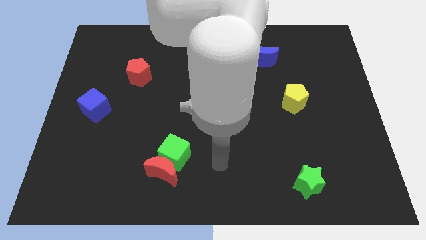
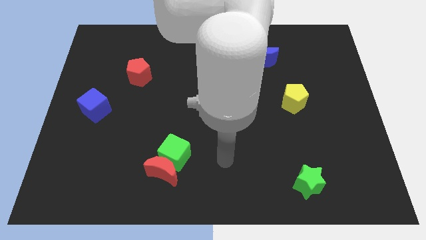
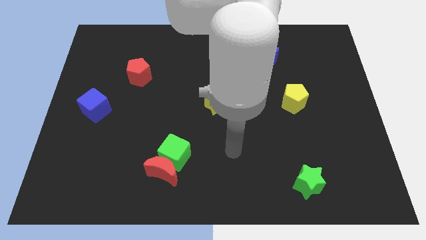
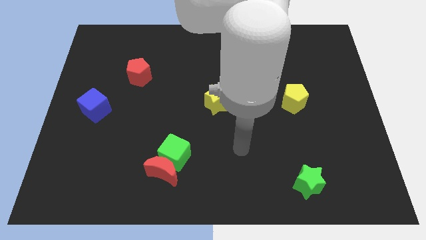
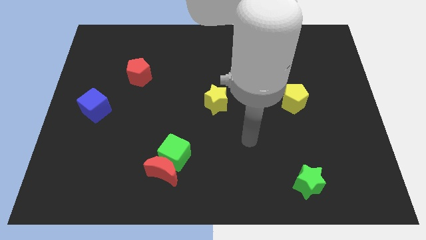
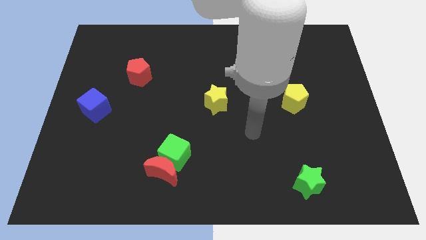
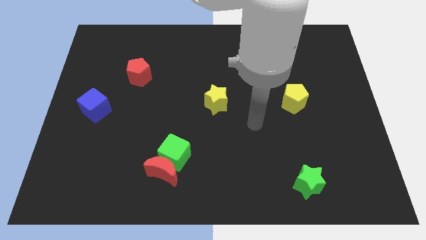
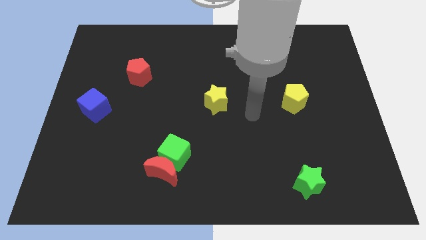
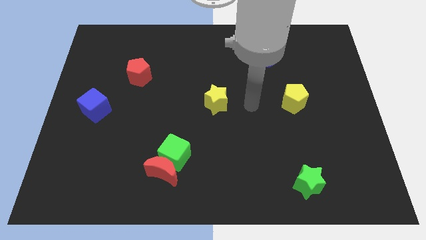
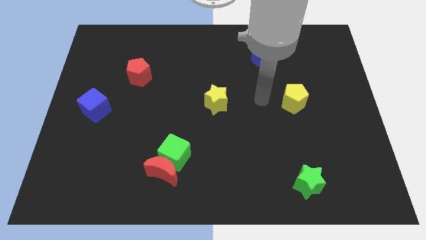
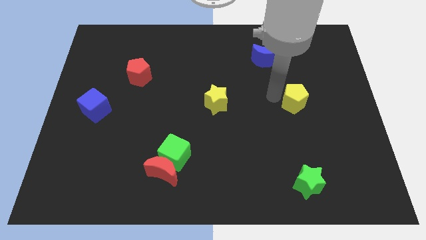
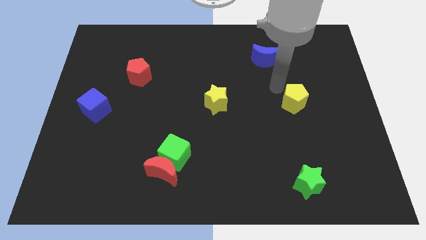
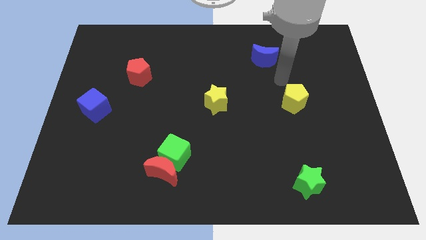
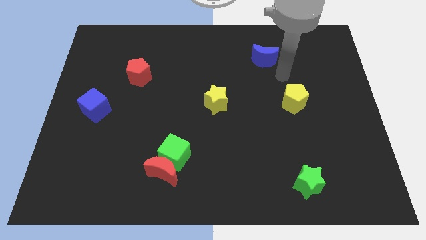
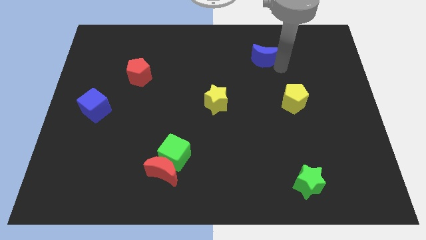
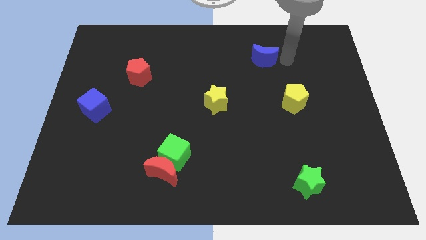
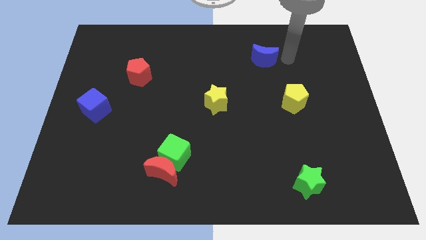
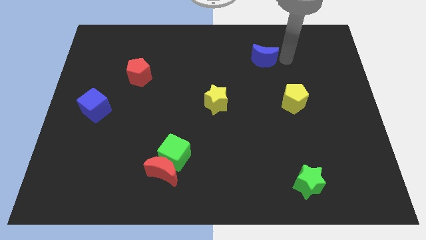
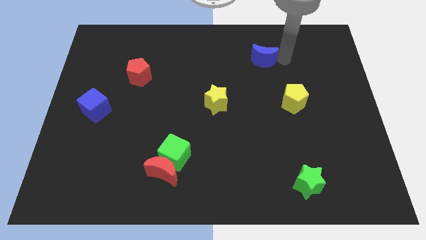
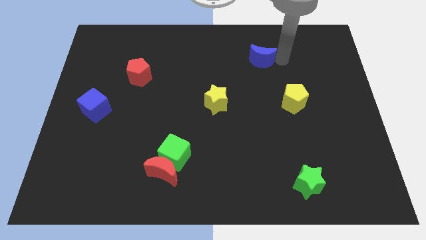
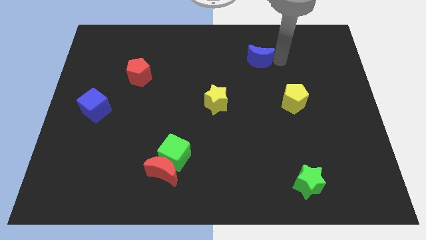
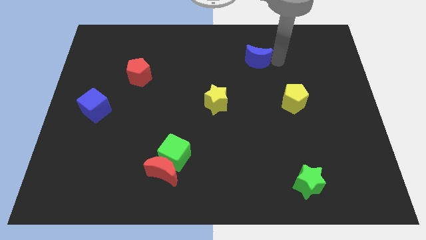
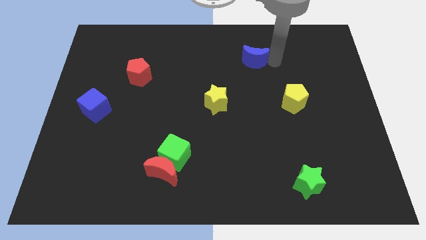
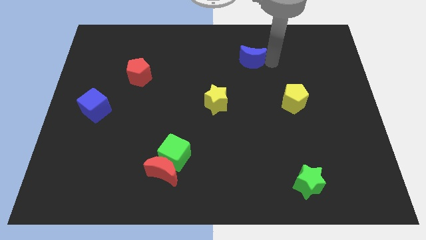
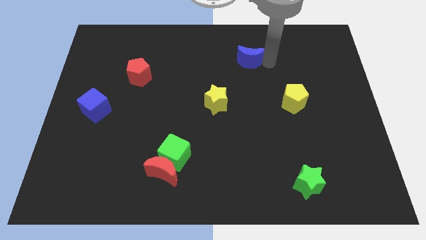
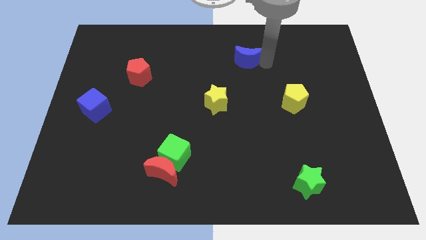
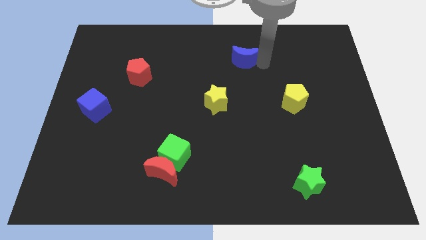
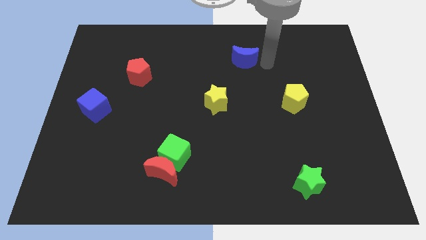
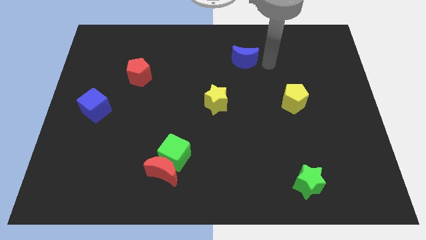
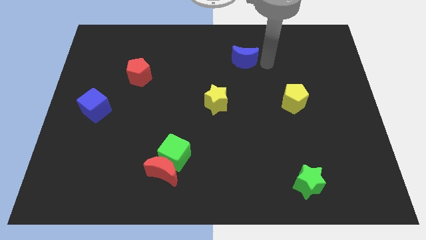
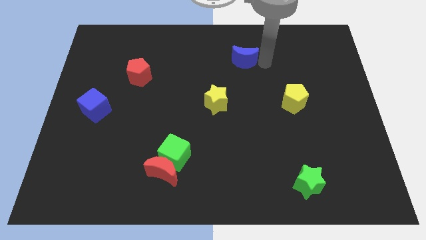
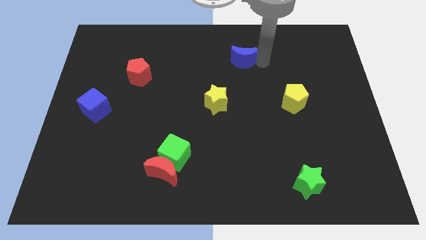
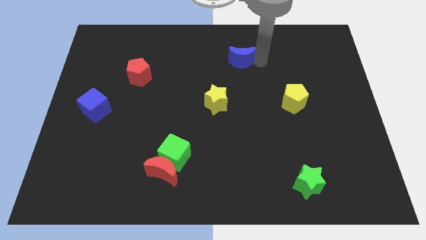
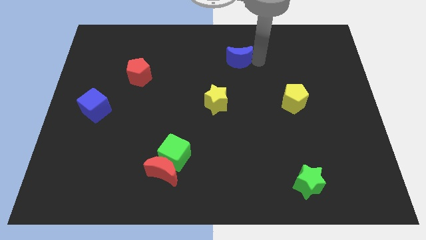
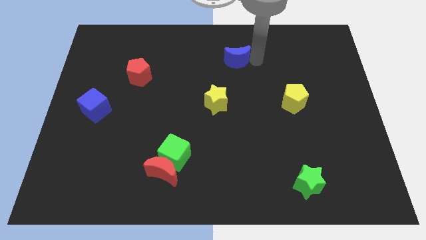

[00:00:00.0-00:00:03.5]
slide the blue moon a little left

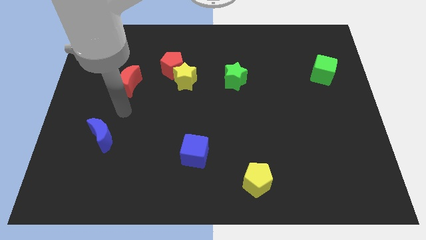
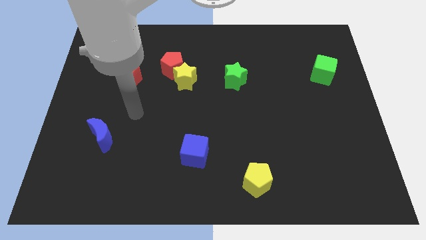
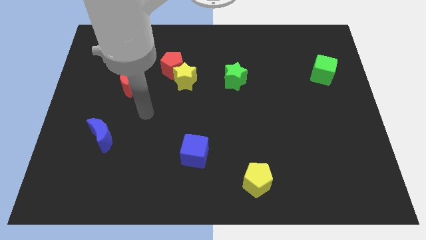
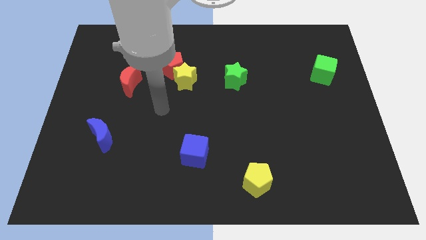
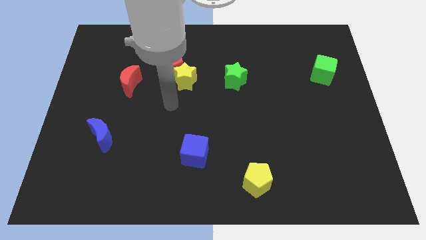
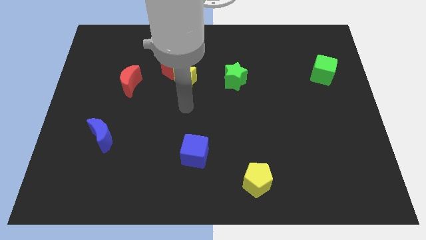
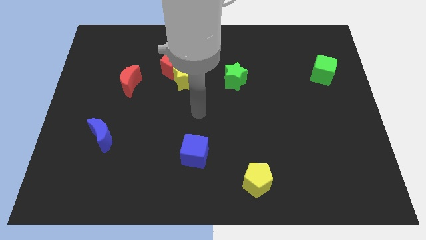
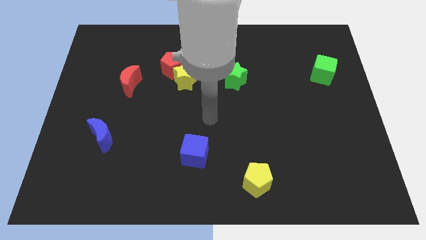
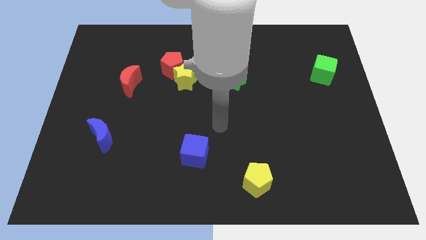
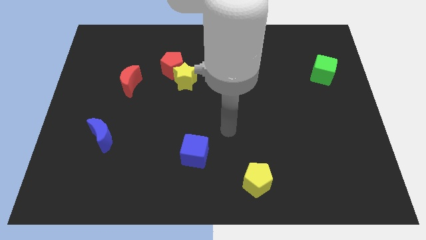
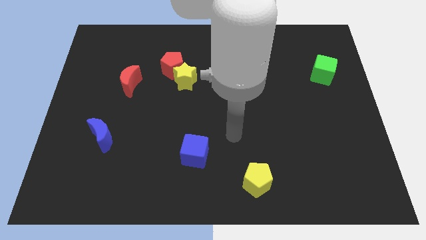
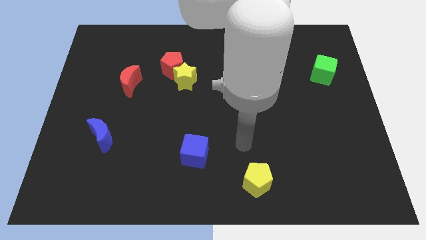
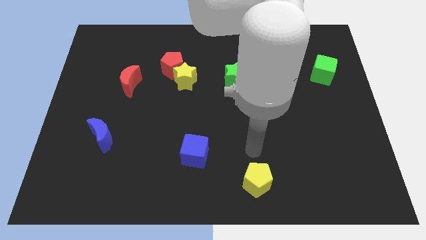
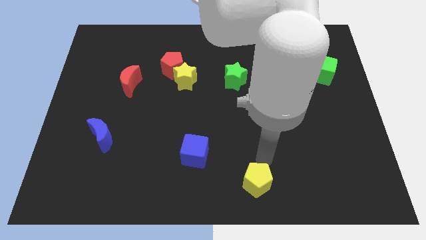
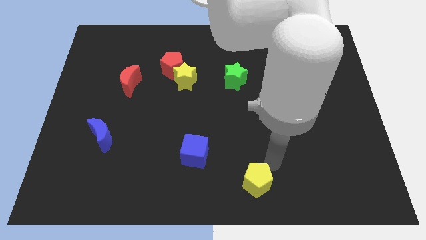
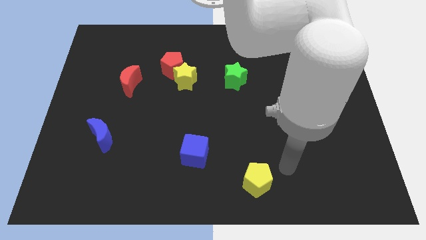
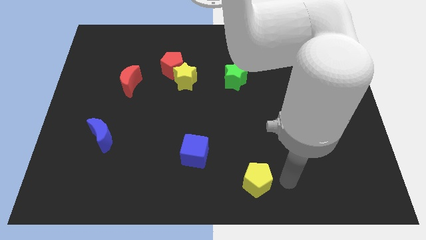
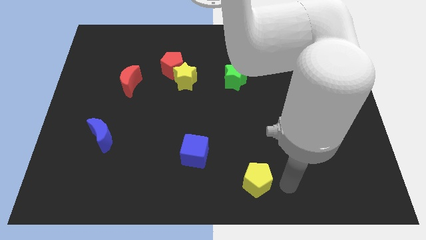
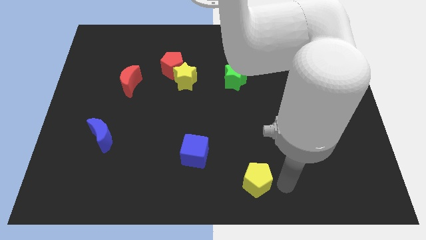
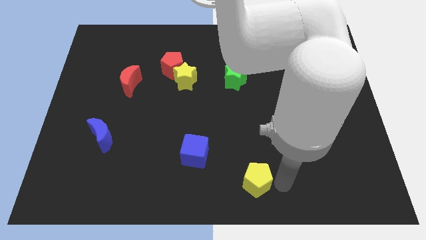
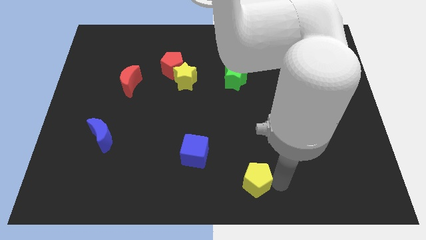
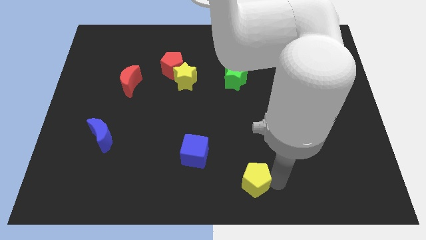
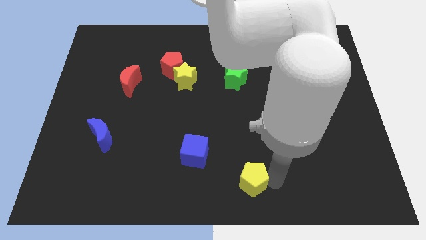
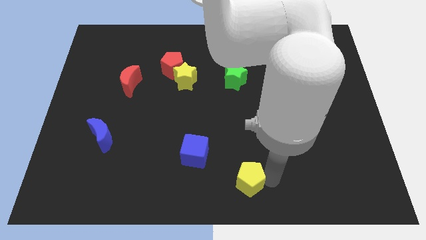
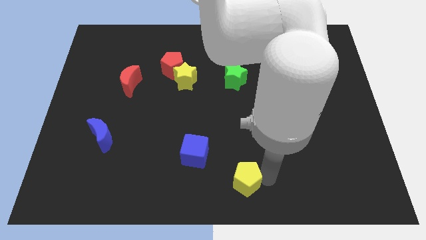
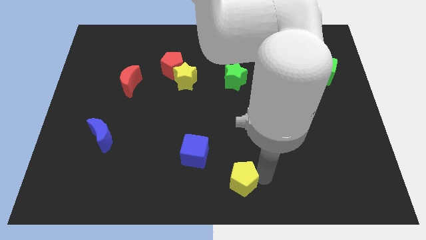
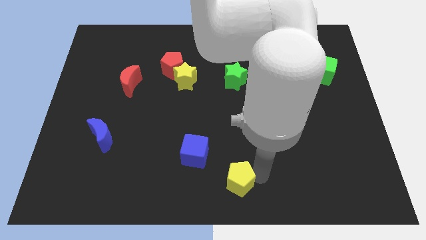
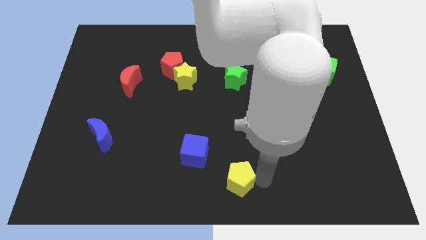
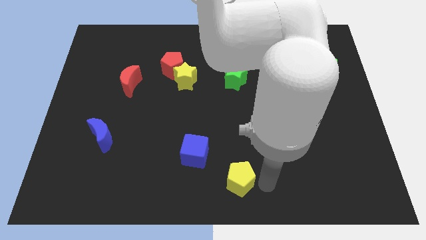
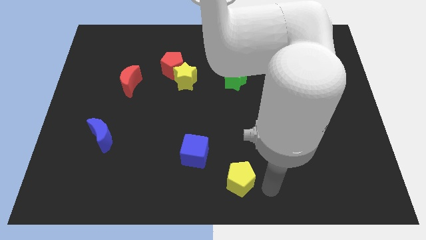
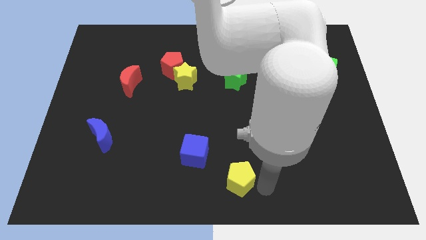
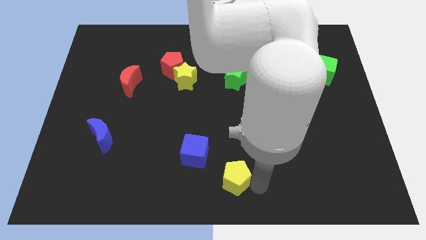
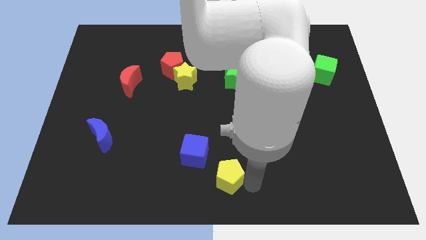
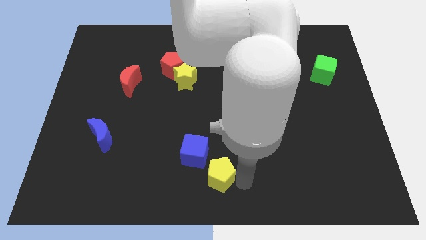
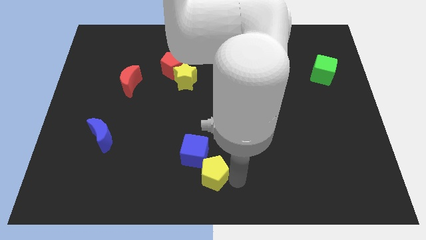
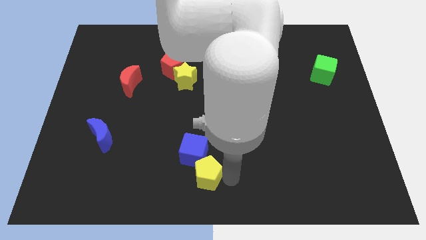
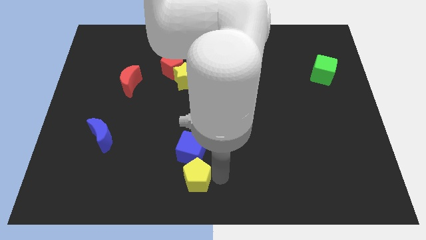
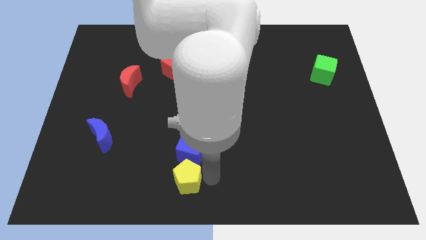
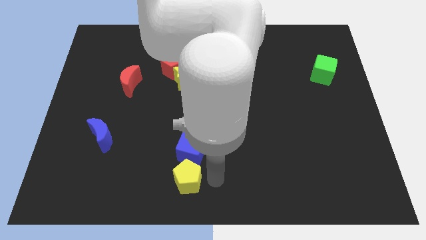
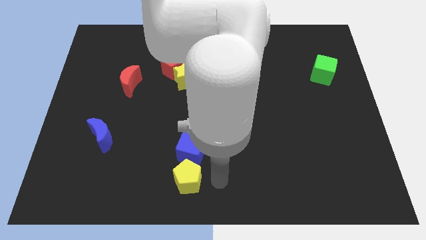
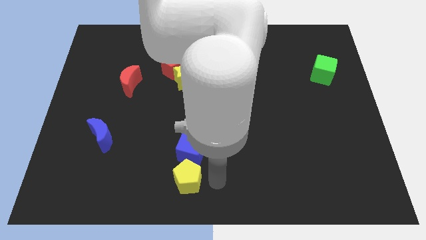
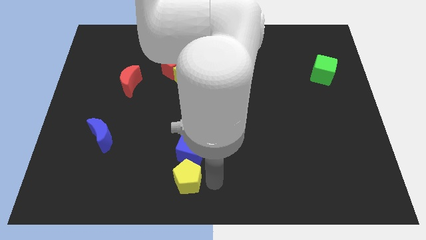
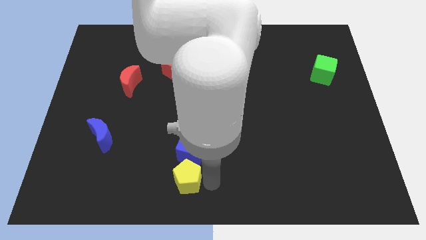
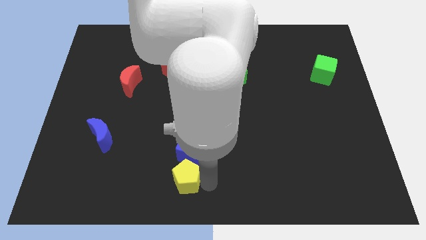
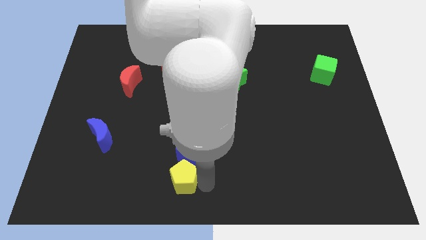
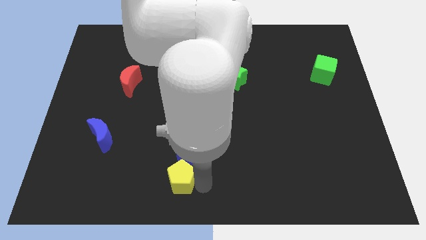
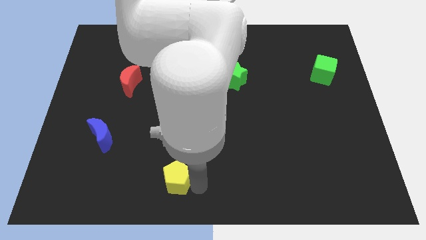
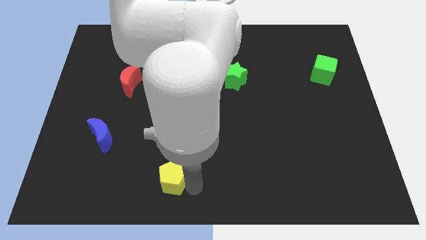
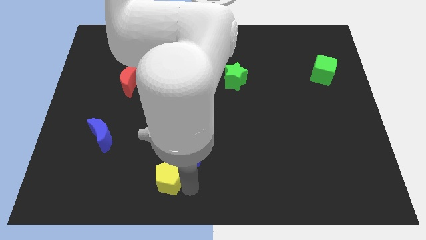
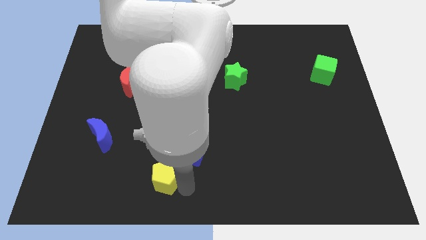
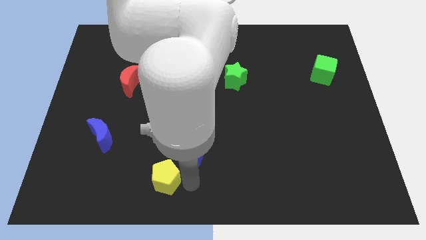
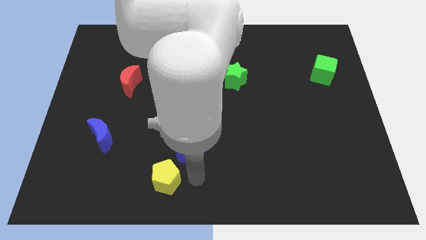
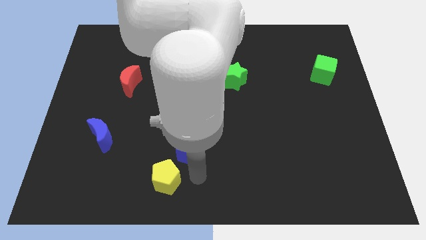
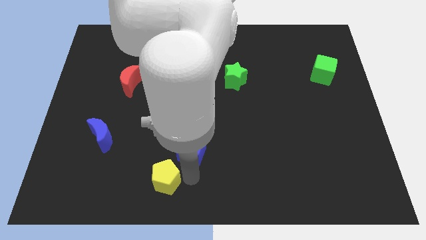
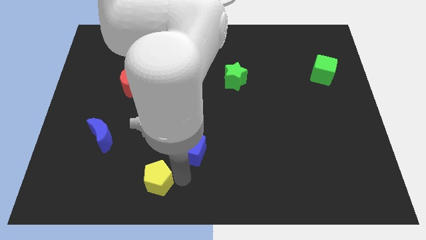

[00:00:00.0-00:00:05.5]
slide the yellow pentagon to the left
